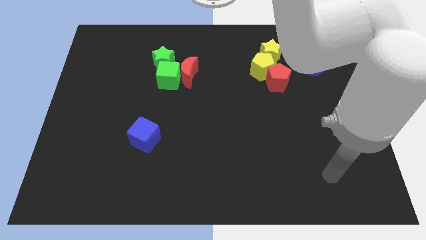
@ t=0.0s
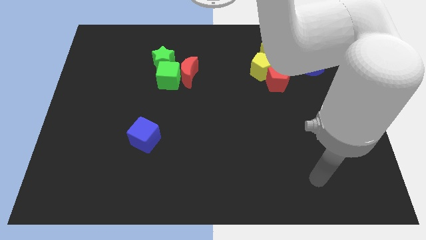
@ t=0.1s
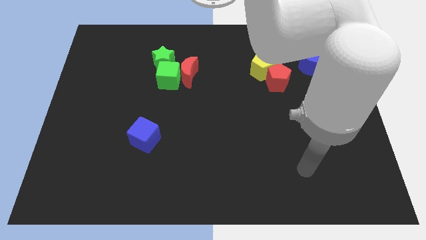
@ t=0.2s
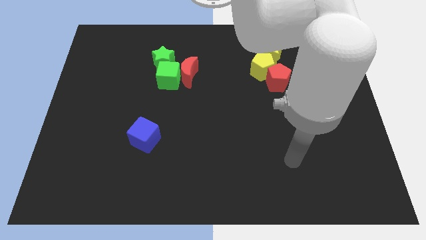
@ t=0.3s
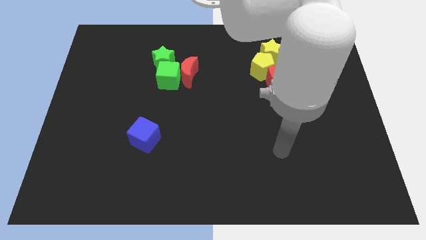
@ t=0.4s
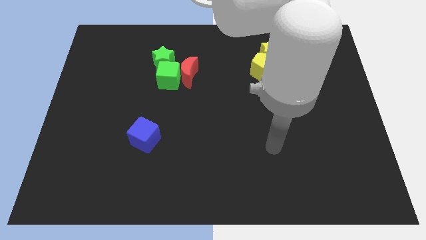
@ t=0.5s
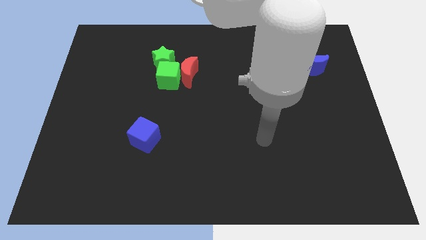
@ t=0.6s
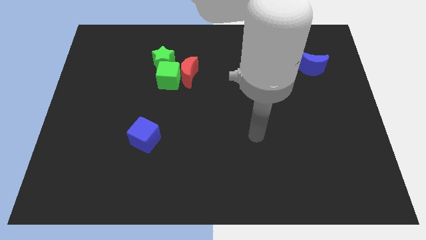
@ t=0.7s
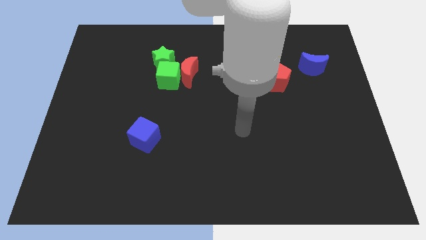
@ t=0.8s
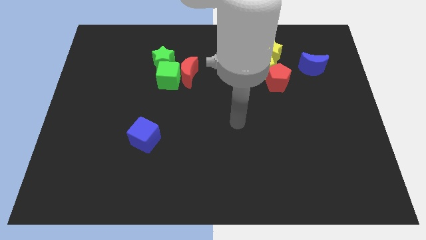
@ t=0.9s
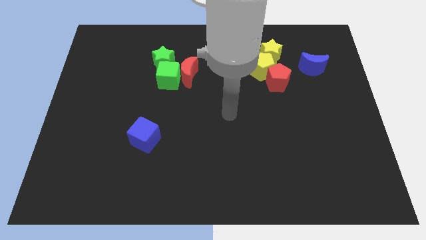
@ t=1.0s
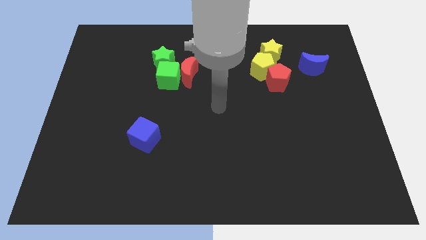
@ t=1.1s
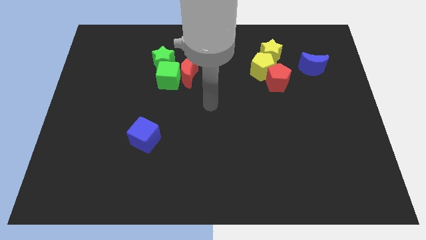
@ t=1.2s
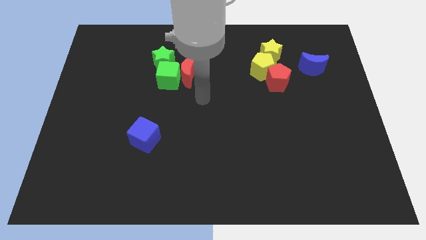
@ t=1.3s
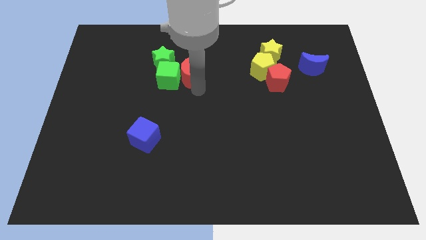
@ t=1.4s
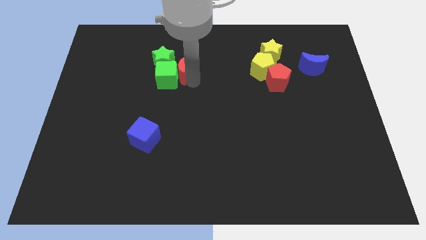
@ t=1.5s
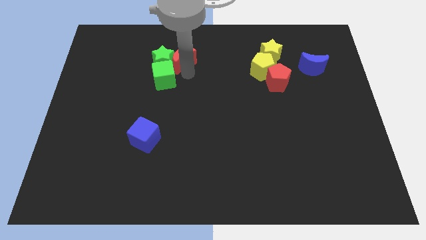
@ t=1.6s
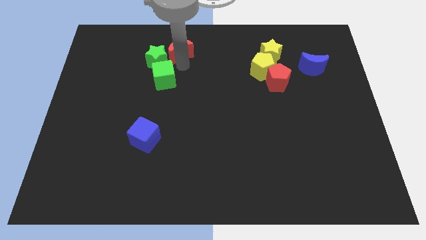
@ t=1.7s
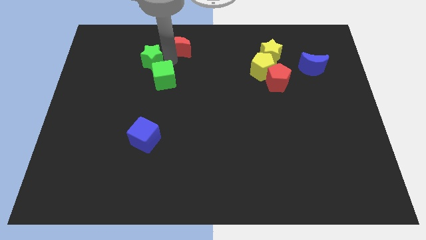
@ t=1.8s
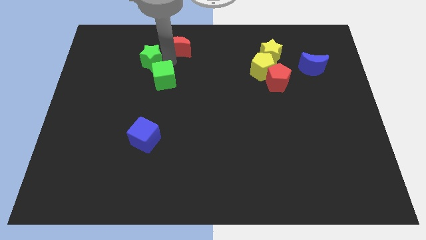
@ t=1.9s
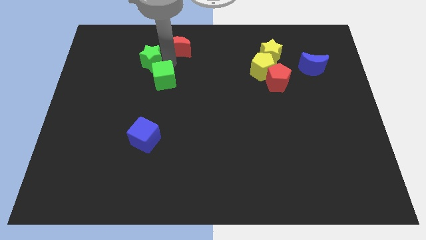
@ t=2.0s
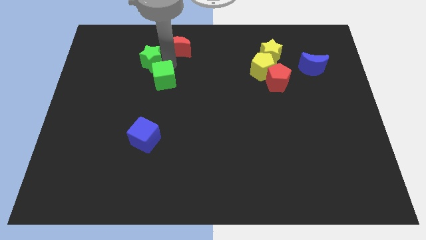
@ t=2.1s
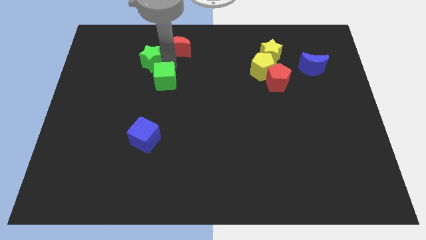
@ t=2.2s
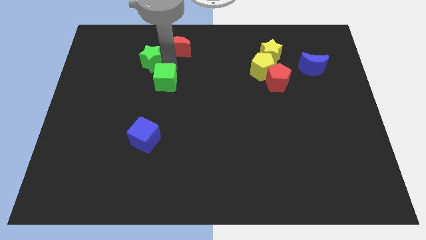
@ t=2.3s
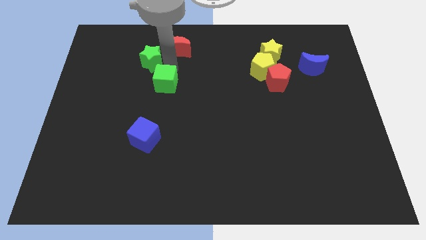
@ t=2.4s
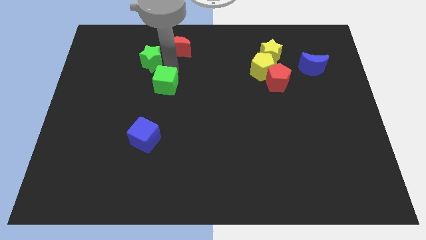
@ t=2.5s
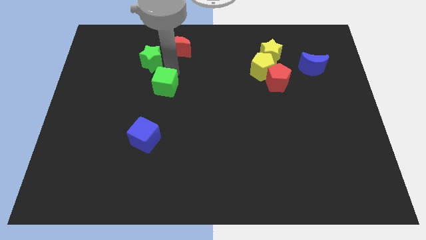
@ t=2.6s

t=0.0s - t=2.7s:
separate the green cube from the red moon and green star

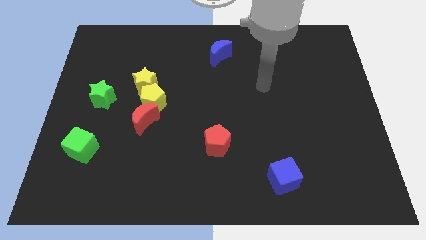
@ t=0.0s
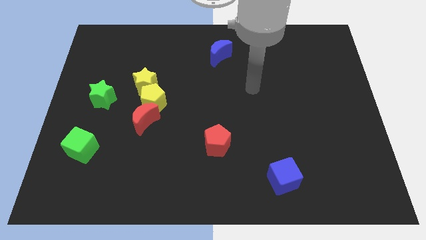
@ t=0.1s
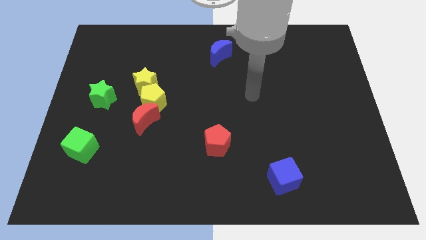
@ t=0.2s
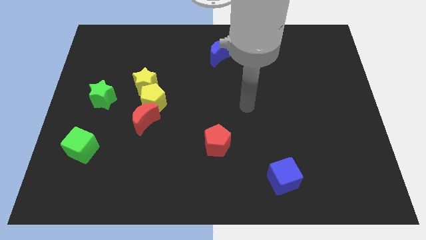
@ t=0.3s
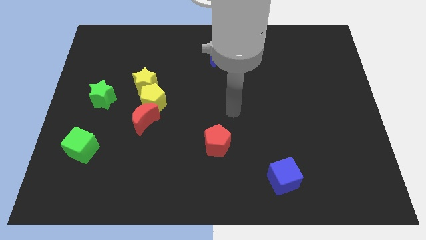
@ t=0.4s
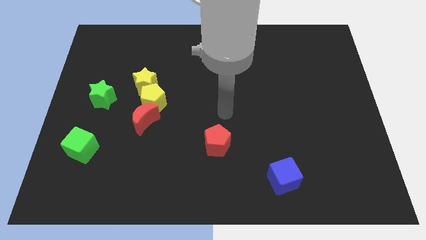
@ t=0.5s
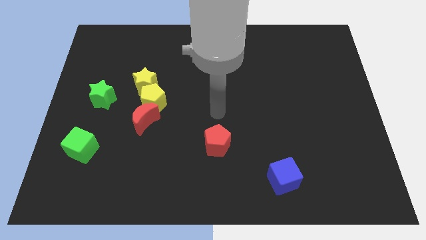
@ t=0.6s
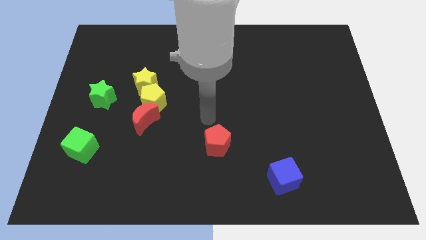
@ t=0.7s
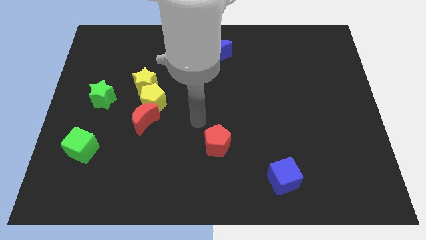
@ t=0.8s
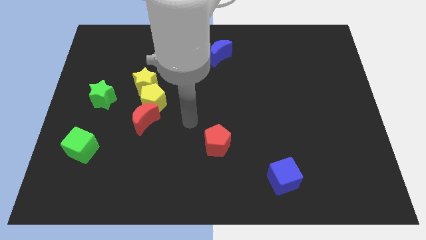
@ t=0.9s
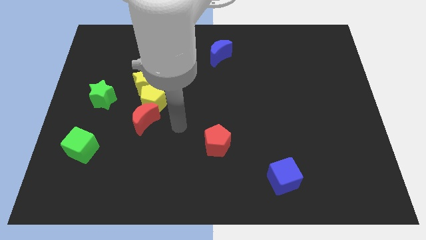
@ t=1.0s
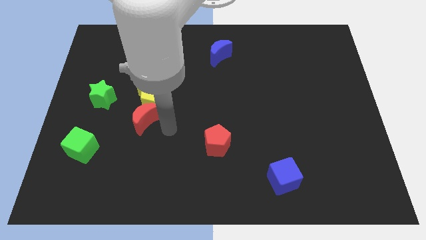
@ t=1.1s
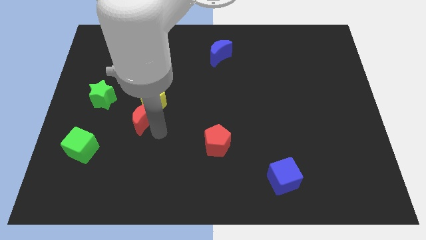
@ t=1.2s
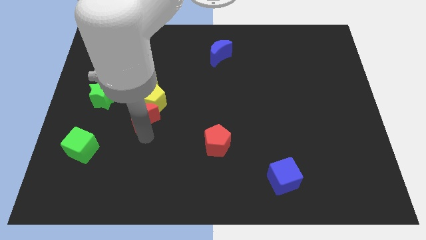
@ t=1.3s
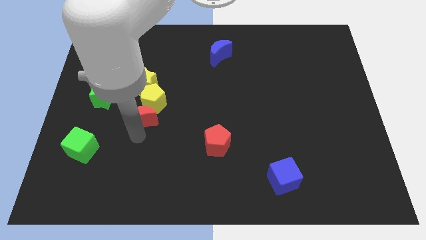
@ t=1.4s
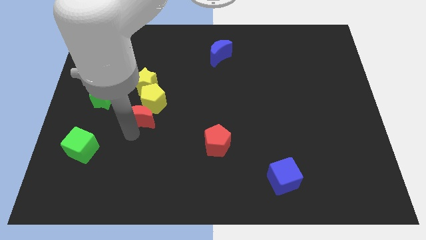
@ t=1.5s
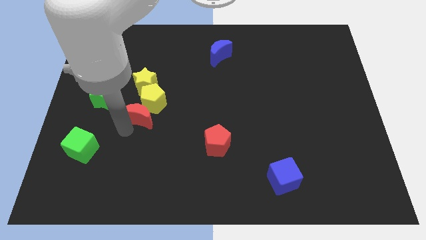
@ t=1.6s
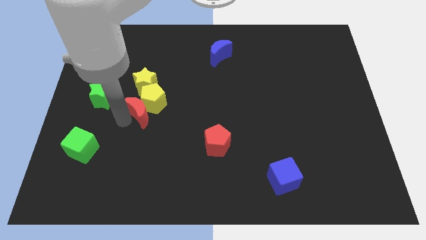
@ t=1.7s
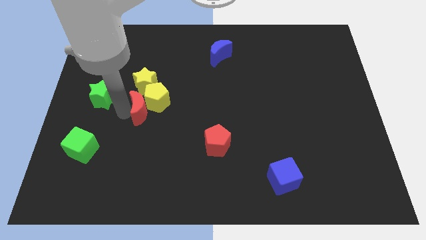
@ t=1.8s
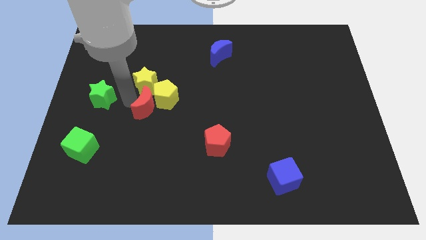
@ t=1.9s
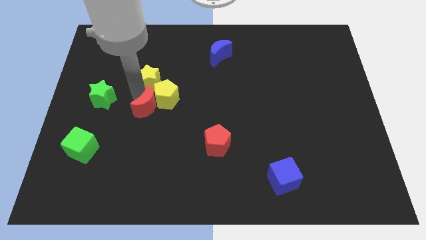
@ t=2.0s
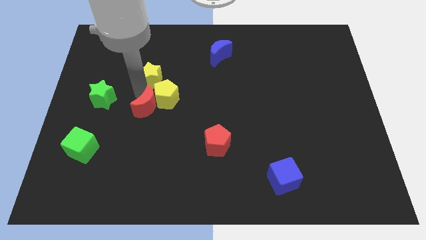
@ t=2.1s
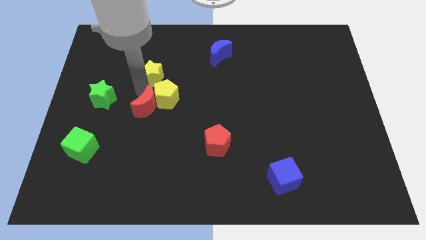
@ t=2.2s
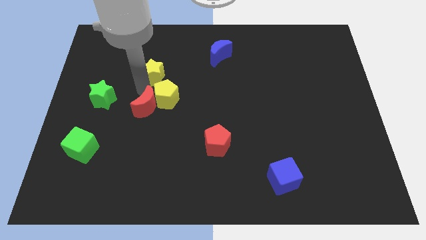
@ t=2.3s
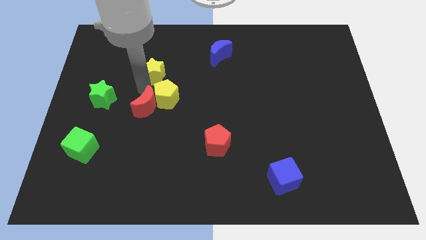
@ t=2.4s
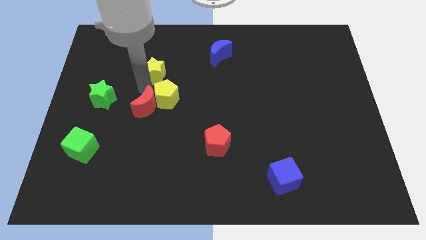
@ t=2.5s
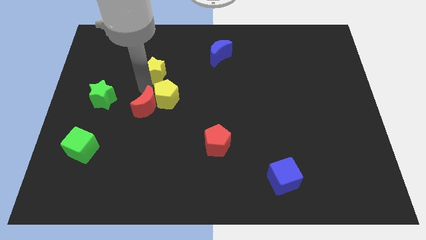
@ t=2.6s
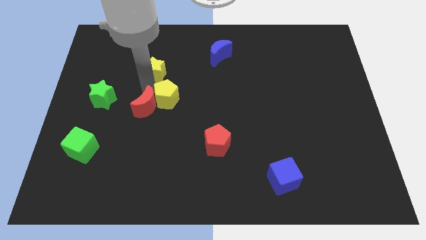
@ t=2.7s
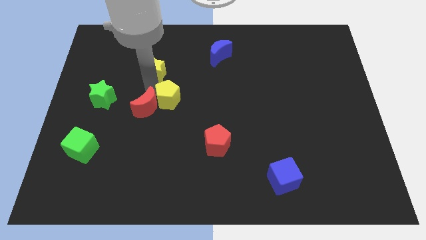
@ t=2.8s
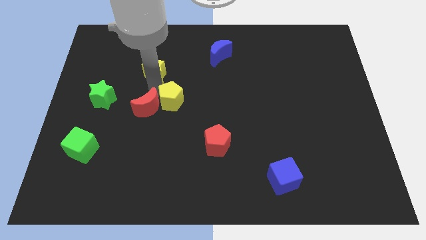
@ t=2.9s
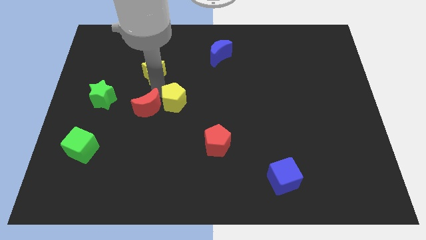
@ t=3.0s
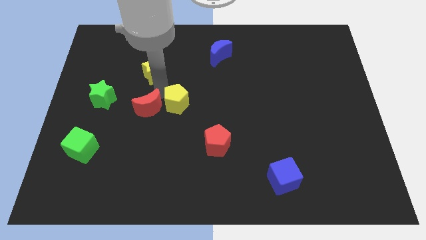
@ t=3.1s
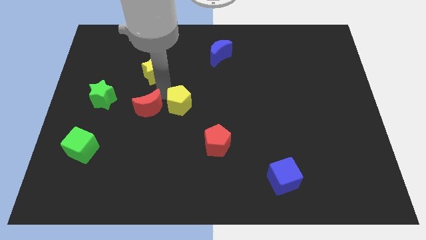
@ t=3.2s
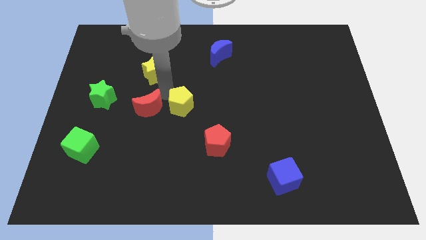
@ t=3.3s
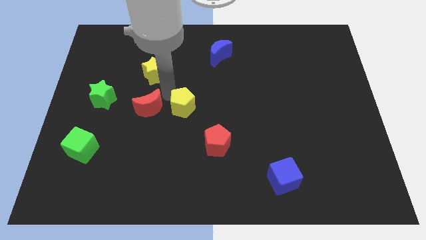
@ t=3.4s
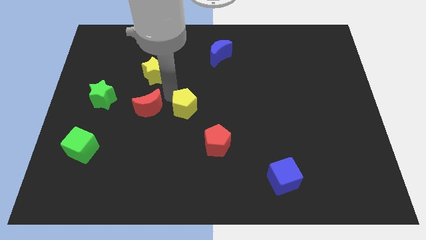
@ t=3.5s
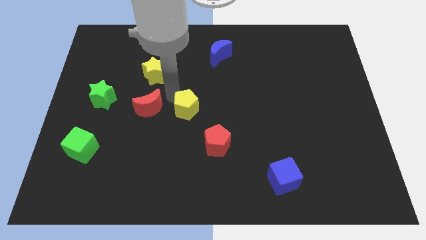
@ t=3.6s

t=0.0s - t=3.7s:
move the yellow pentagon away from the red moon and yellow star

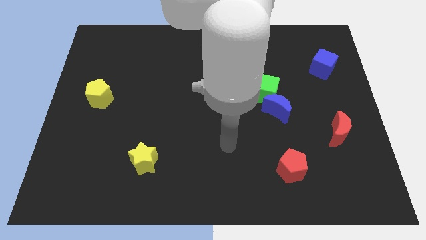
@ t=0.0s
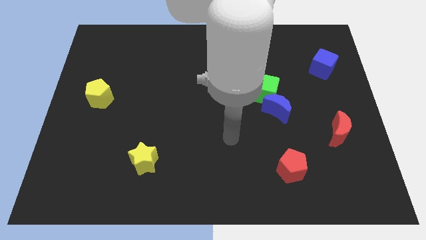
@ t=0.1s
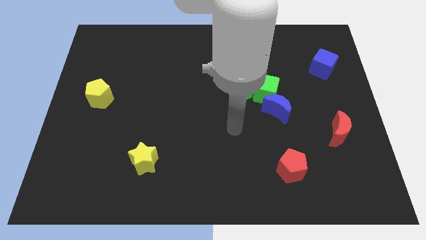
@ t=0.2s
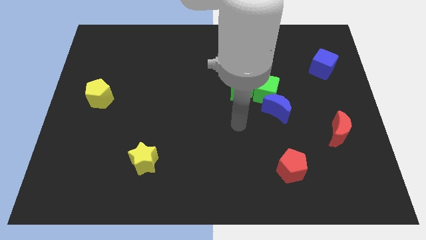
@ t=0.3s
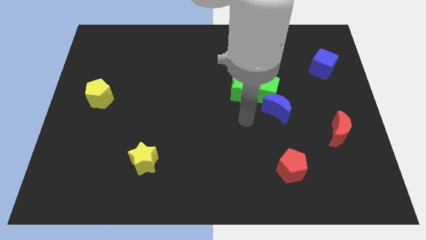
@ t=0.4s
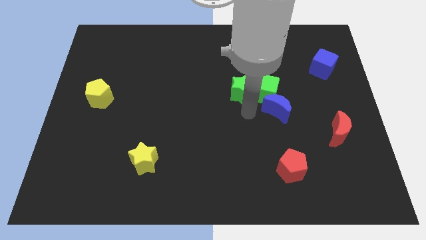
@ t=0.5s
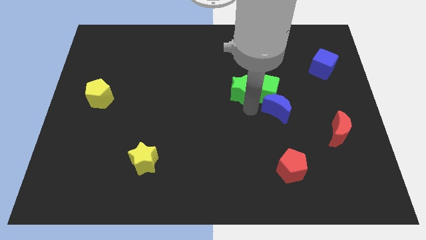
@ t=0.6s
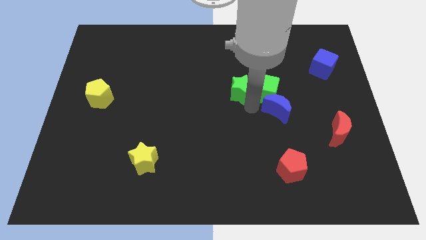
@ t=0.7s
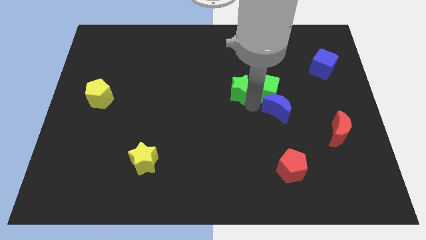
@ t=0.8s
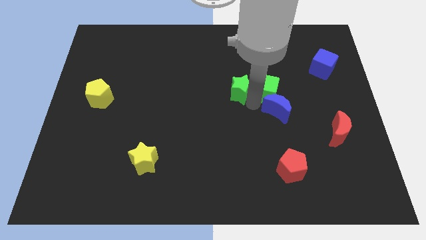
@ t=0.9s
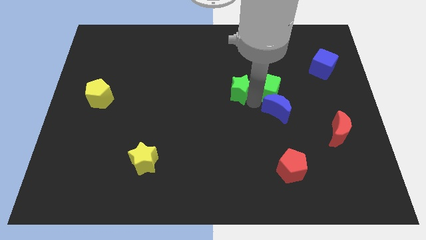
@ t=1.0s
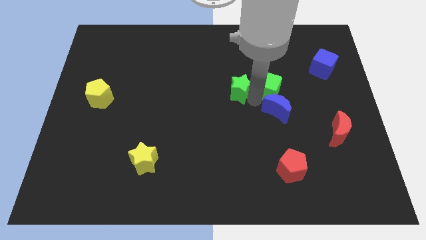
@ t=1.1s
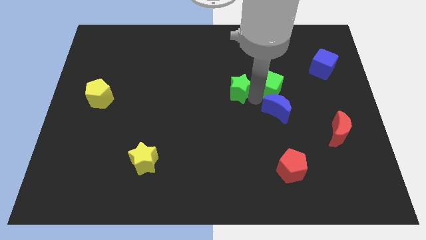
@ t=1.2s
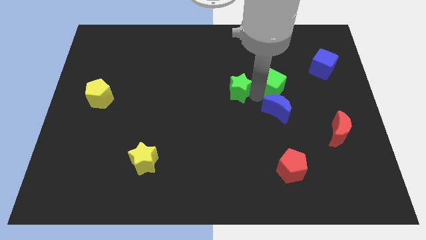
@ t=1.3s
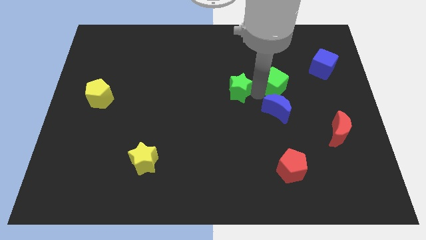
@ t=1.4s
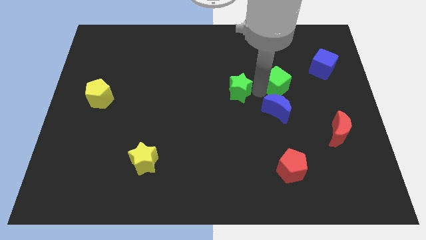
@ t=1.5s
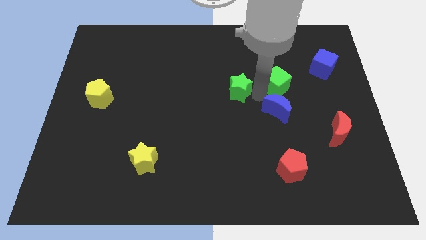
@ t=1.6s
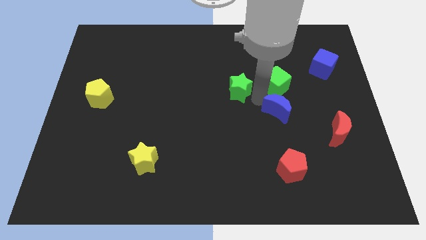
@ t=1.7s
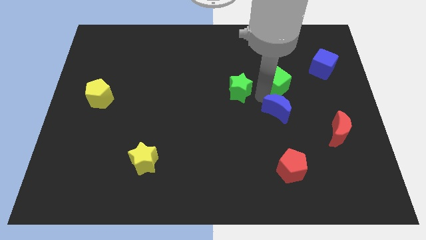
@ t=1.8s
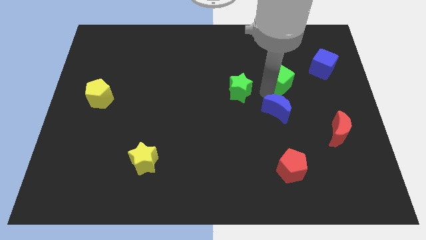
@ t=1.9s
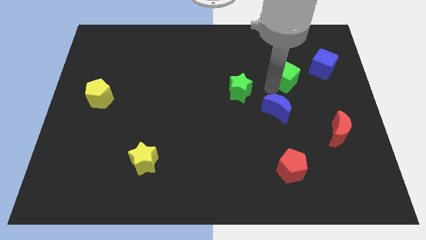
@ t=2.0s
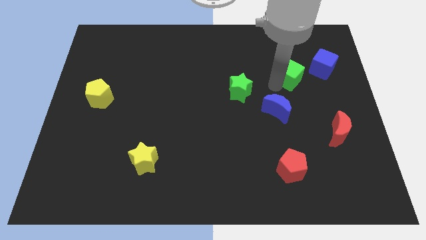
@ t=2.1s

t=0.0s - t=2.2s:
move the green cube away from the green star and blue moon

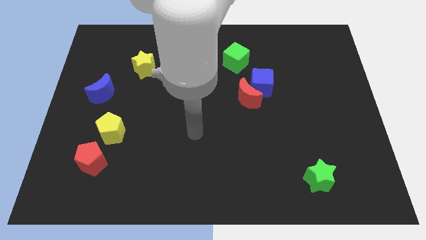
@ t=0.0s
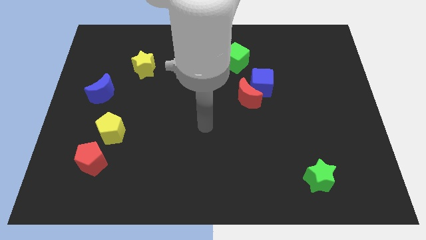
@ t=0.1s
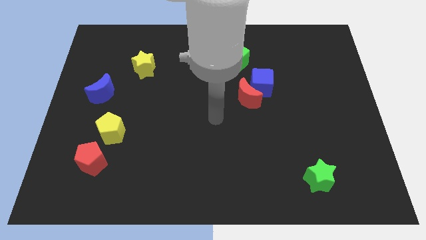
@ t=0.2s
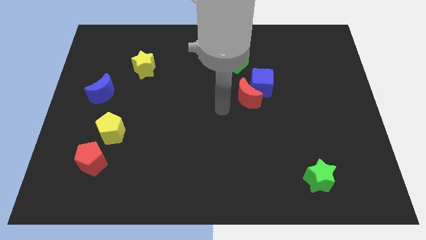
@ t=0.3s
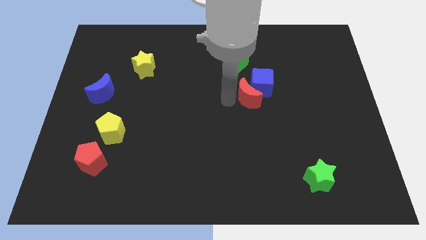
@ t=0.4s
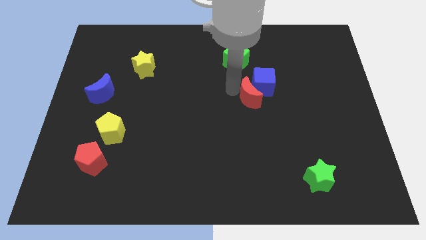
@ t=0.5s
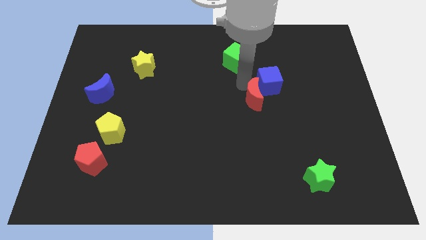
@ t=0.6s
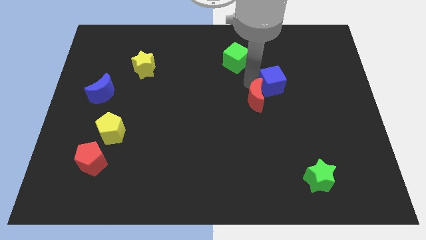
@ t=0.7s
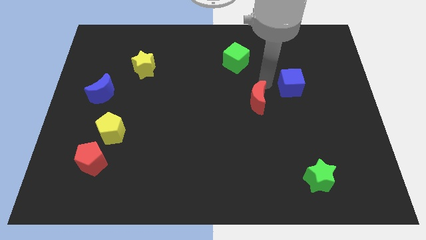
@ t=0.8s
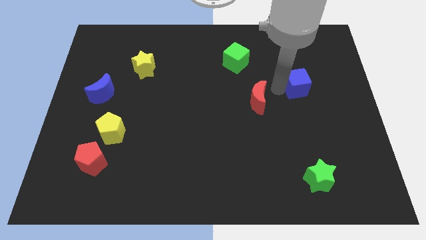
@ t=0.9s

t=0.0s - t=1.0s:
move the red moon away from the blue cube
